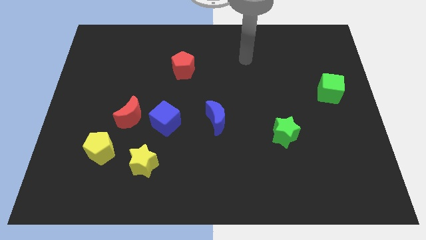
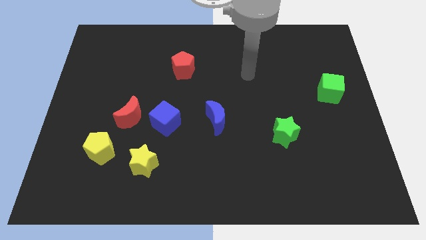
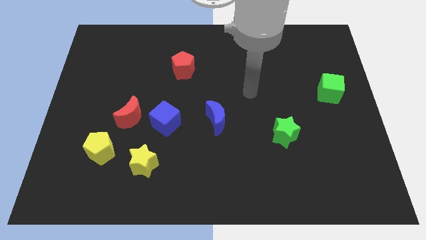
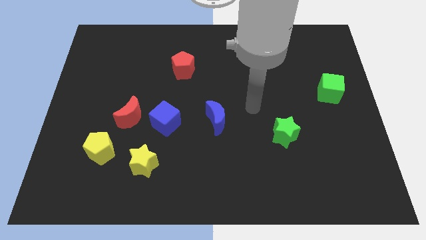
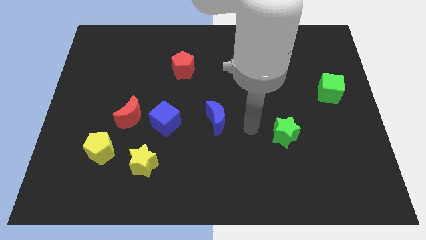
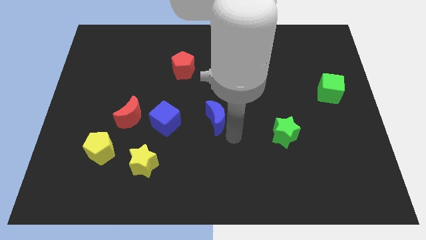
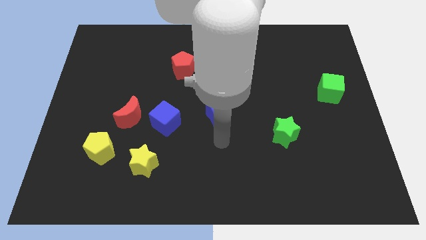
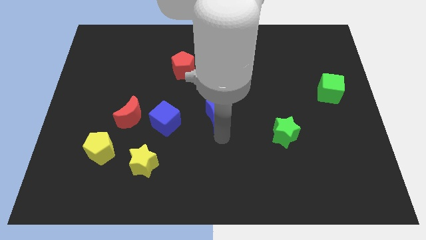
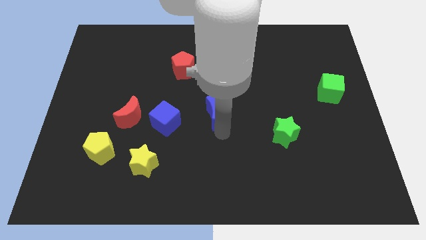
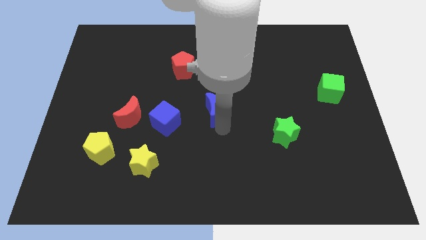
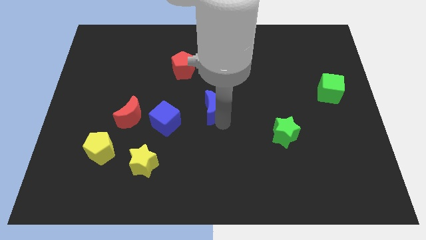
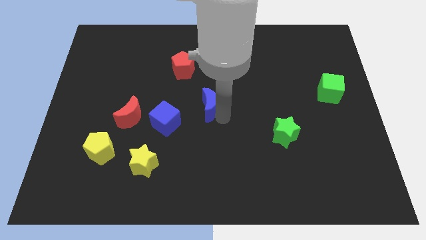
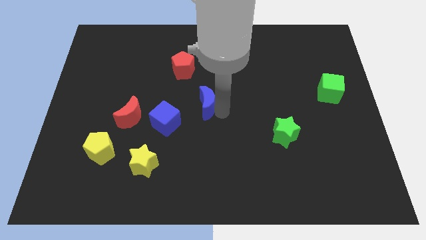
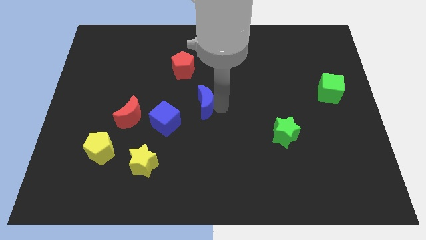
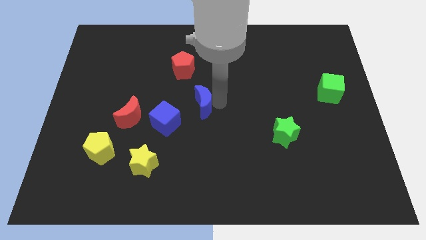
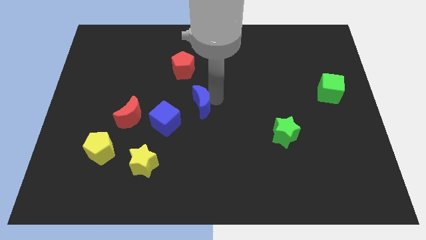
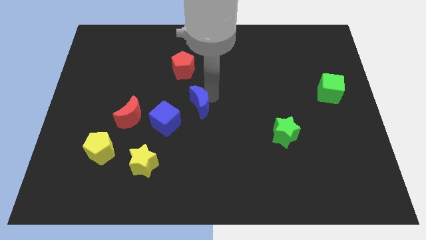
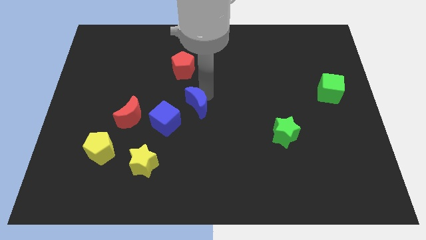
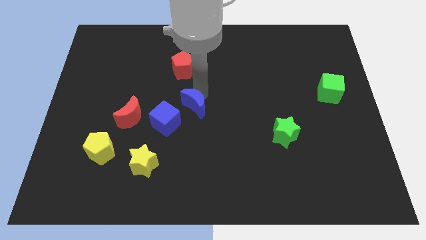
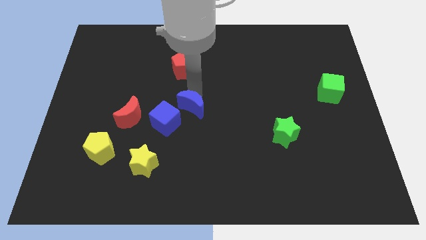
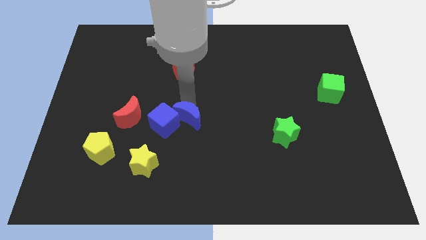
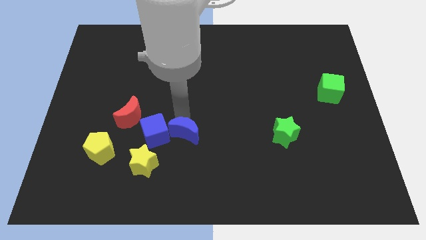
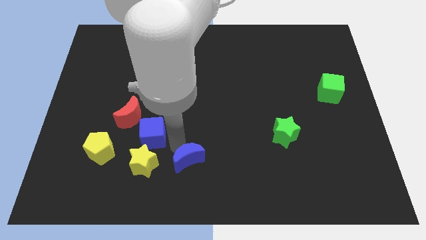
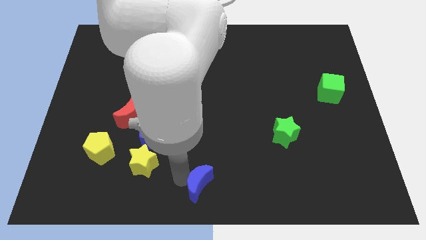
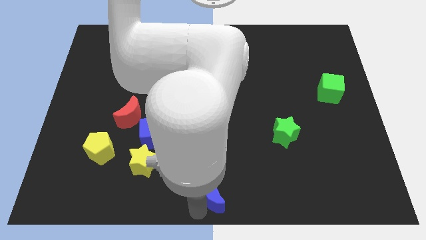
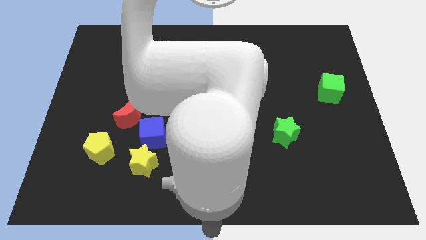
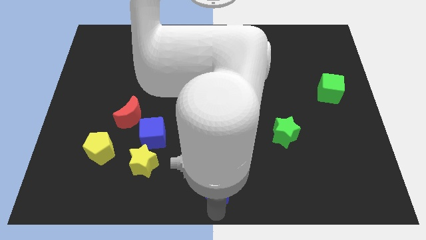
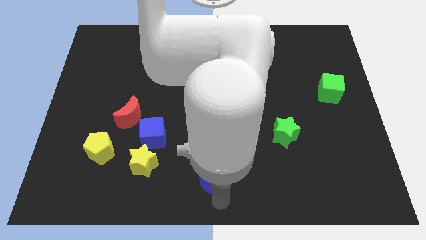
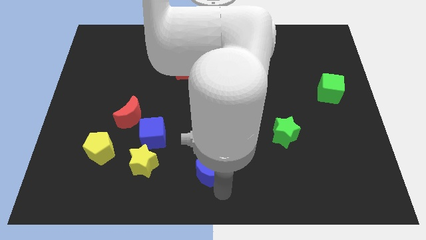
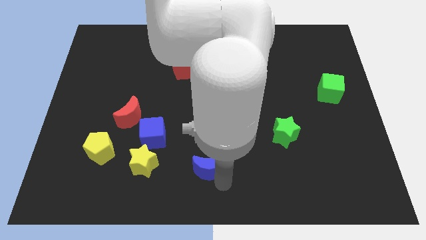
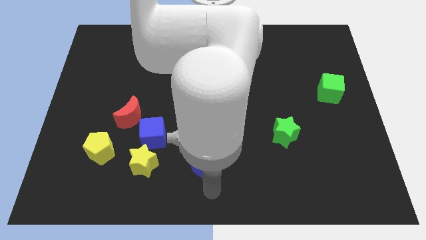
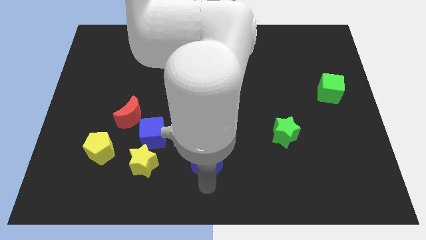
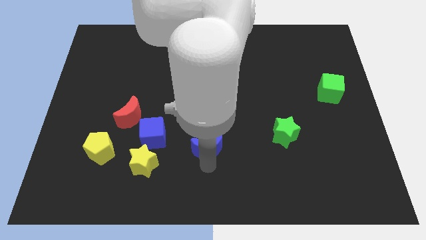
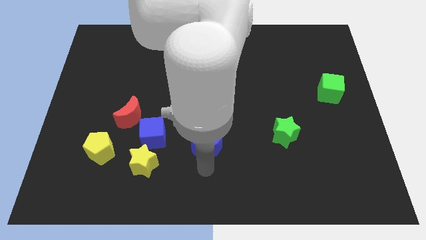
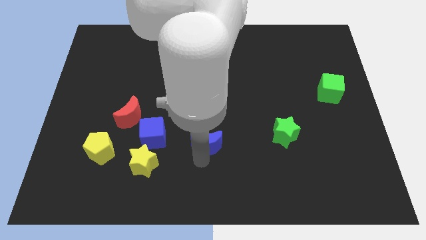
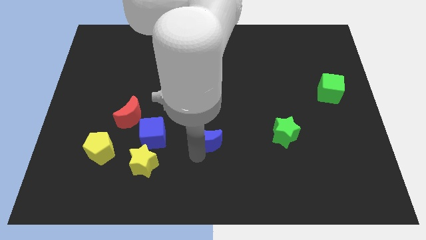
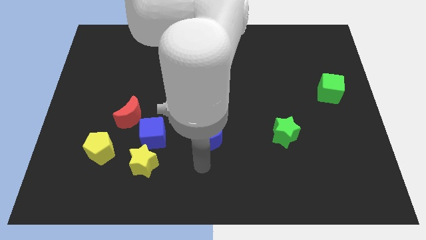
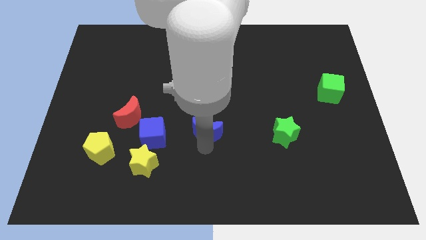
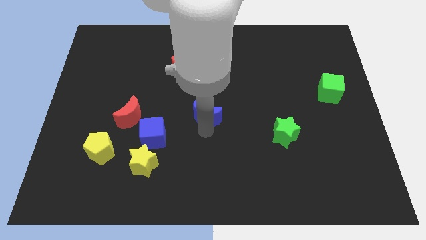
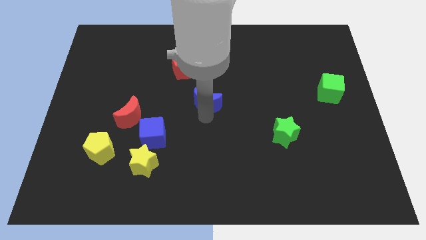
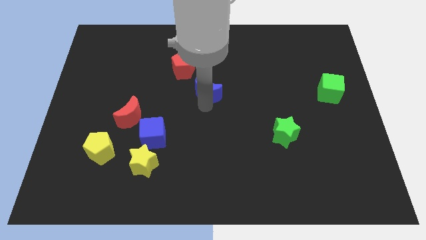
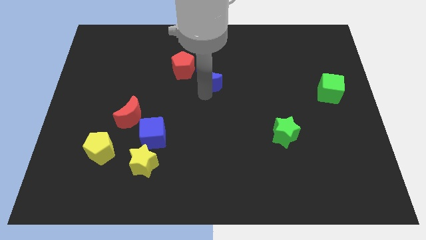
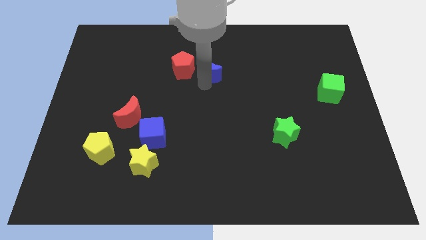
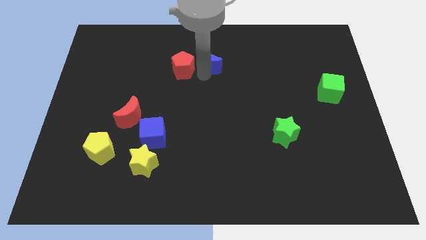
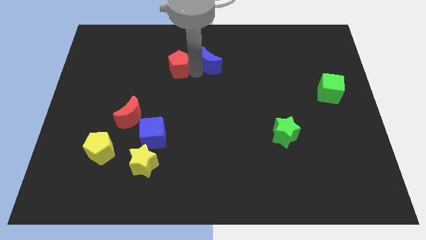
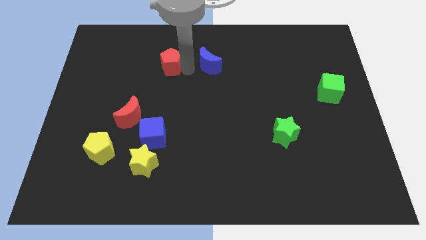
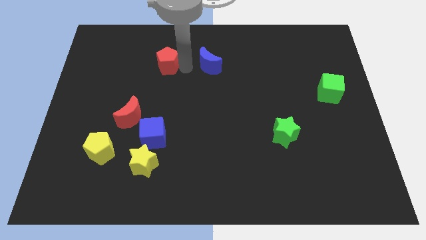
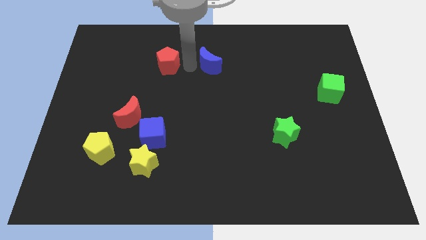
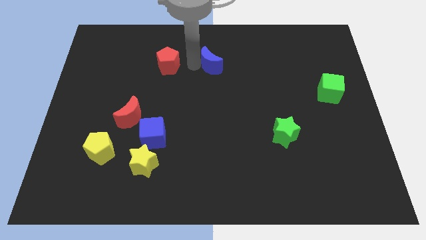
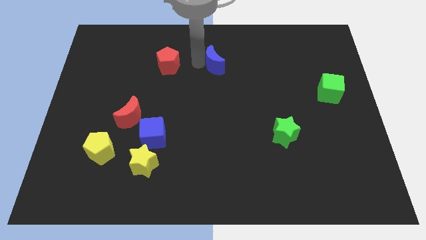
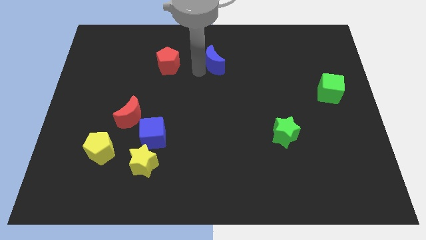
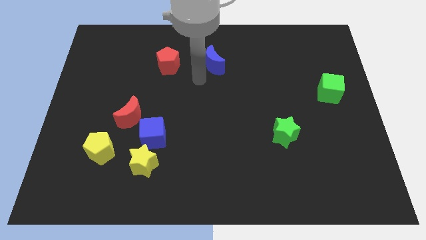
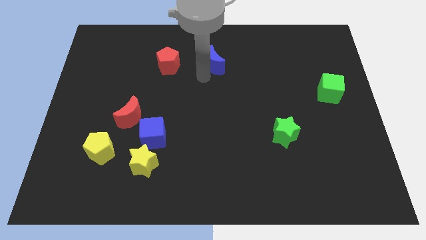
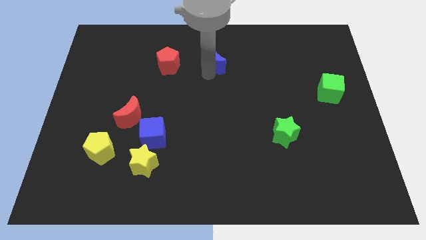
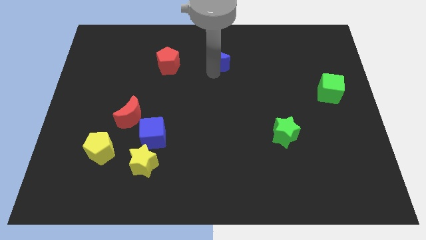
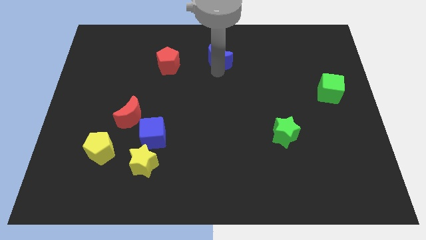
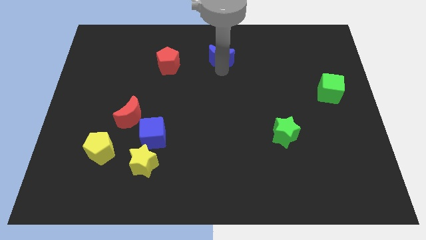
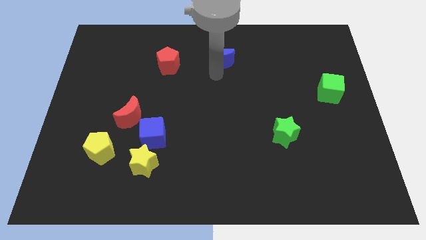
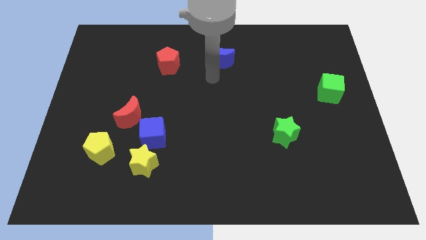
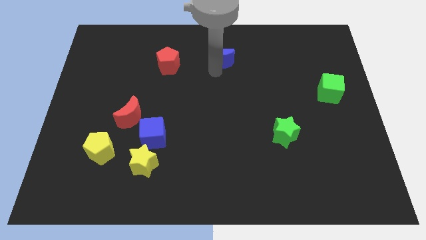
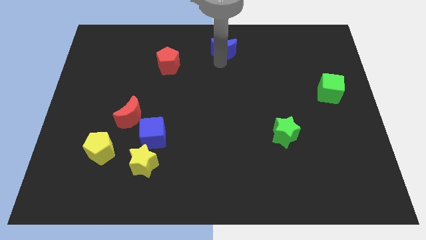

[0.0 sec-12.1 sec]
push the blue moon to the towards your base

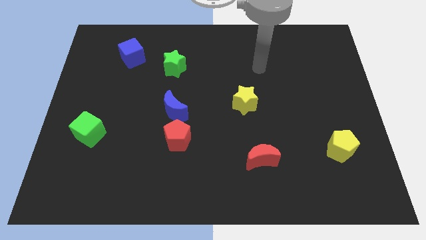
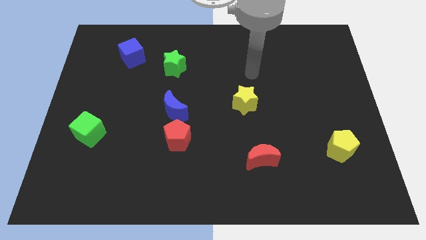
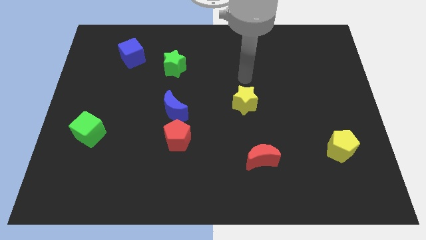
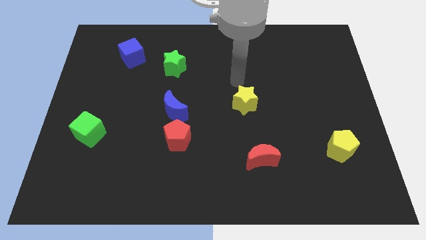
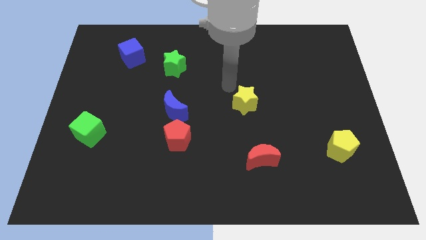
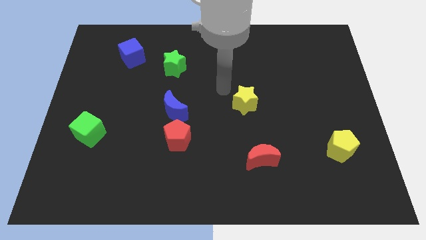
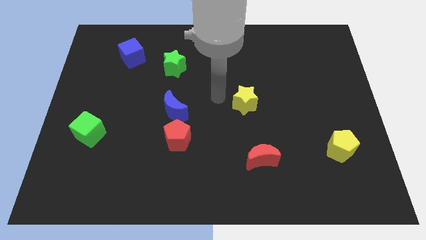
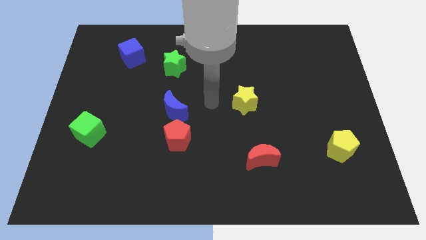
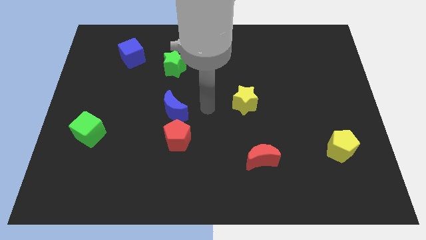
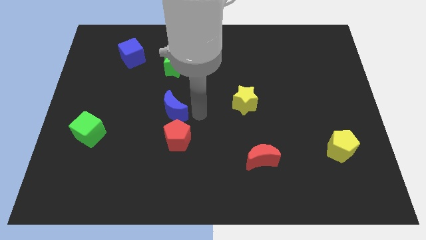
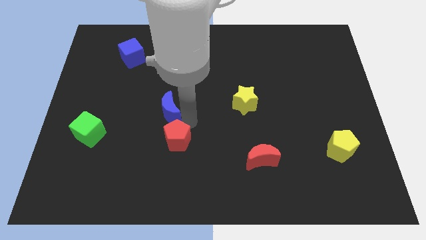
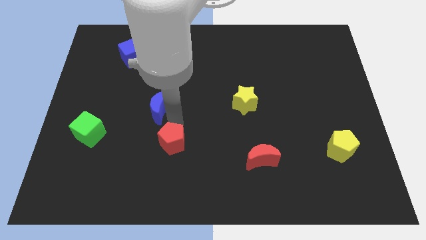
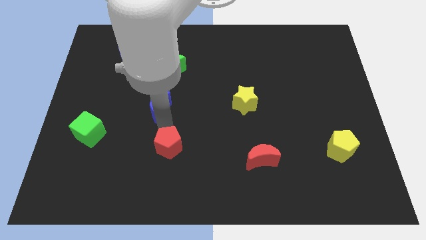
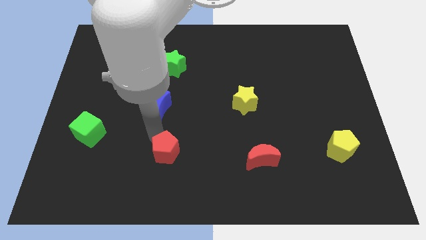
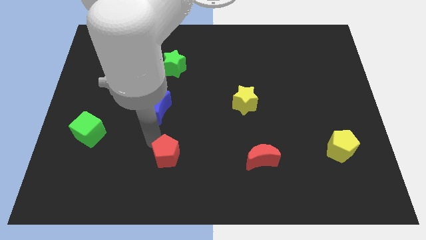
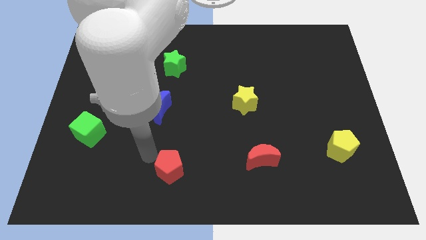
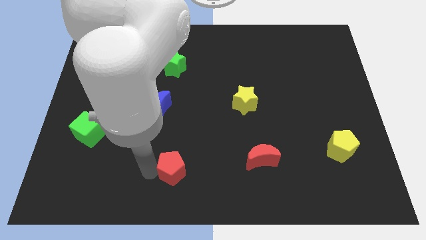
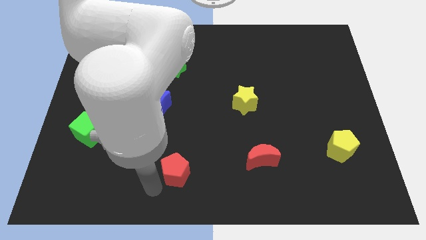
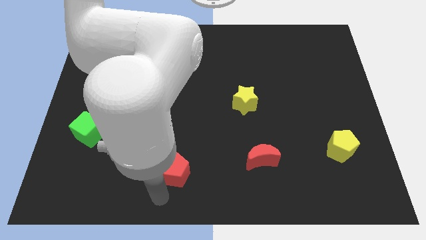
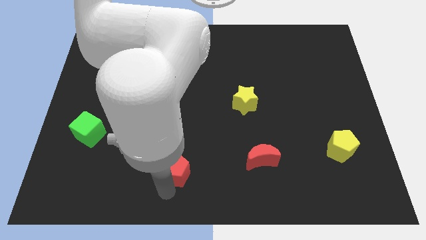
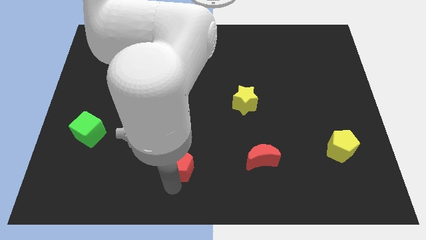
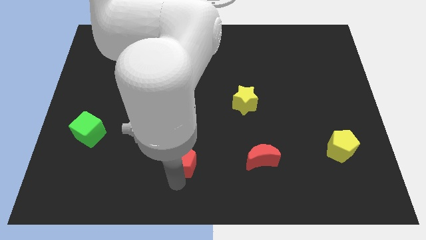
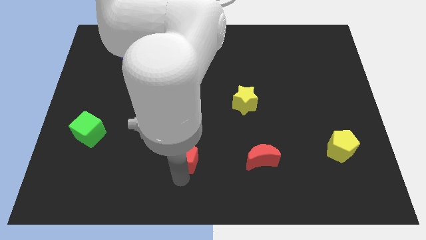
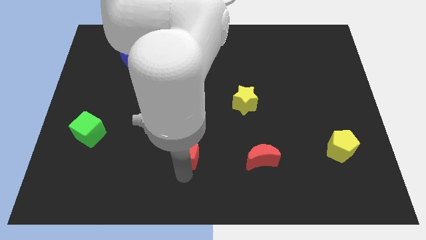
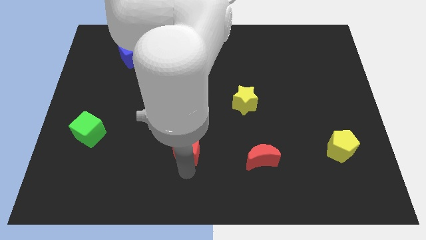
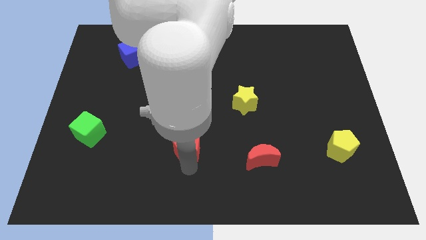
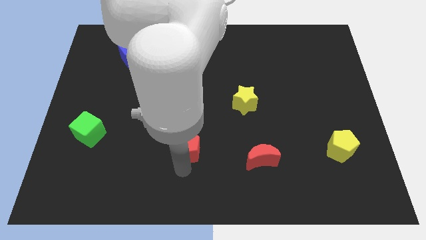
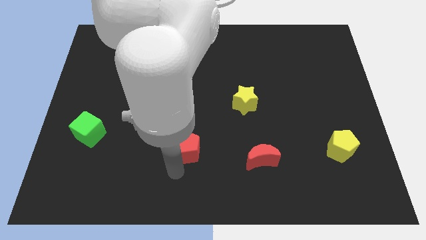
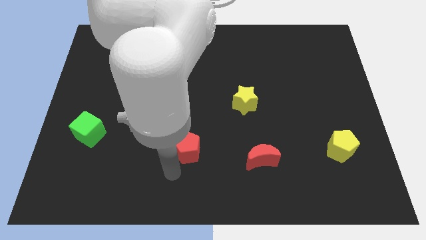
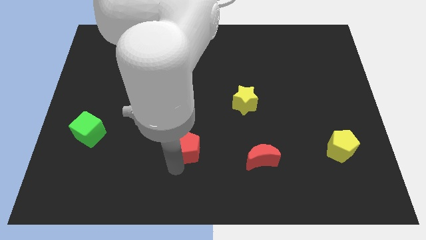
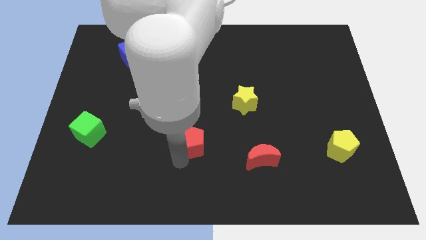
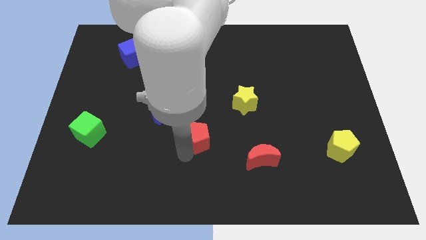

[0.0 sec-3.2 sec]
move the red pentagon to the center of the board
